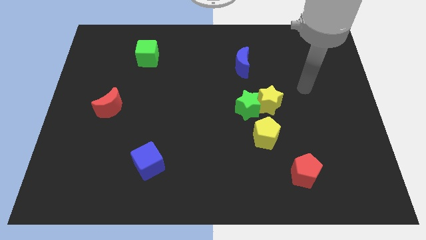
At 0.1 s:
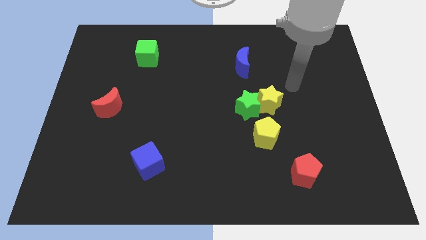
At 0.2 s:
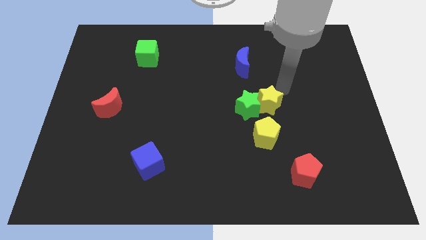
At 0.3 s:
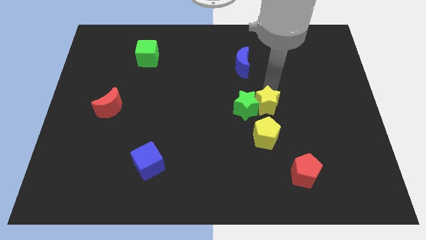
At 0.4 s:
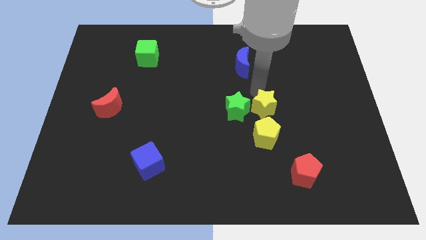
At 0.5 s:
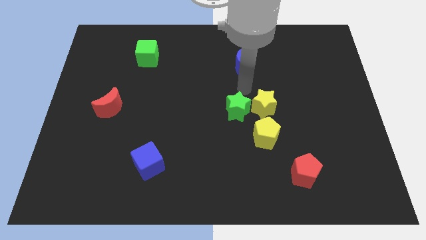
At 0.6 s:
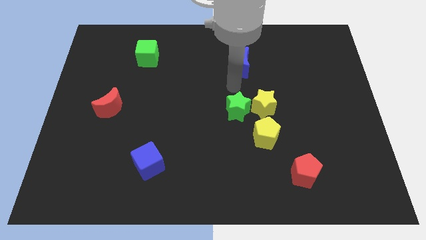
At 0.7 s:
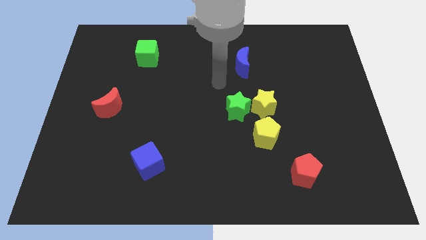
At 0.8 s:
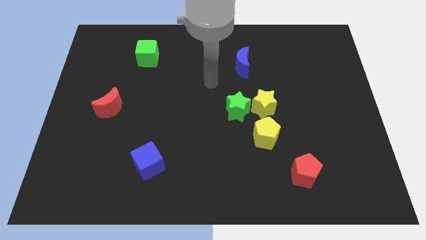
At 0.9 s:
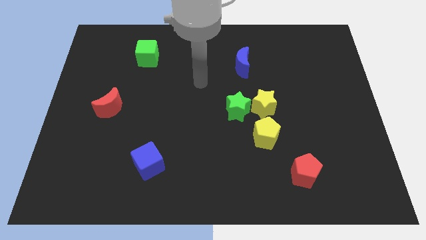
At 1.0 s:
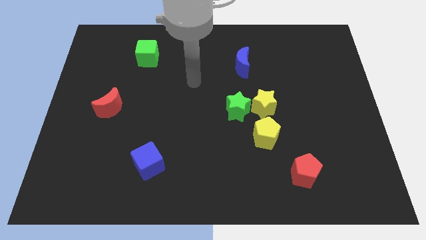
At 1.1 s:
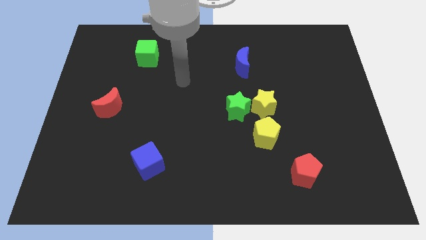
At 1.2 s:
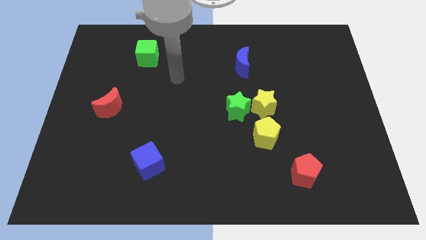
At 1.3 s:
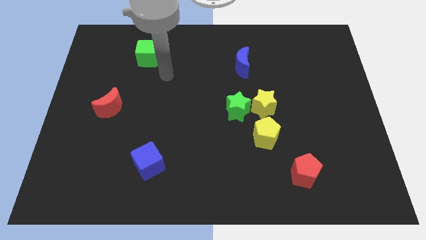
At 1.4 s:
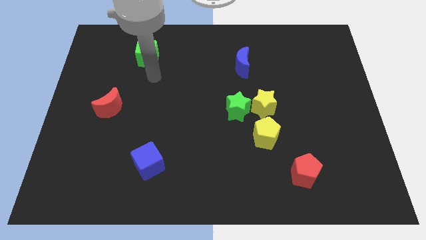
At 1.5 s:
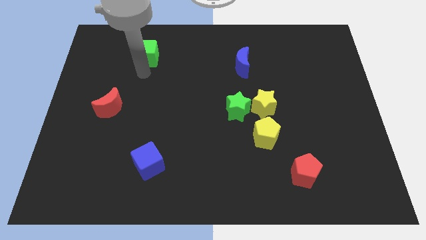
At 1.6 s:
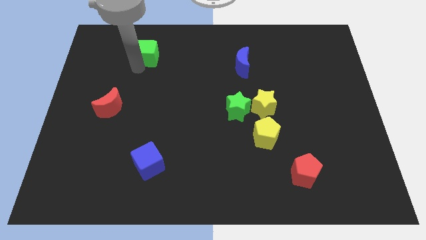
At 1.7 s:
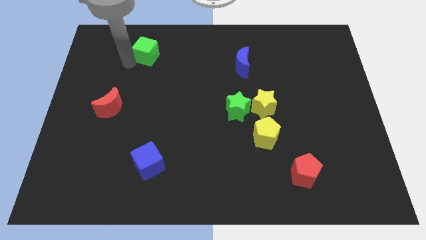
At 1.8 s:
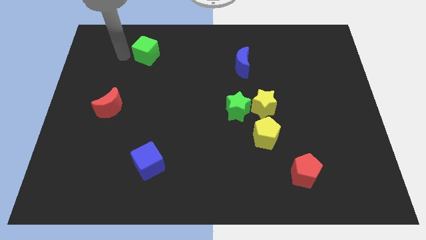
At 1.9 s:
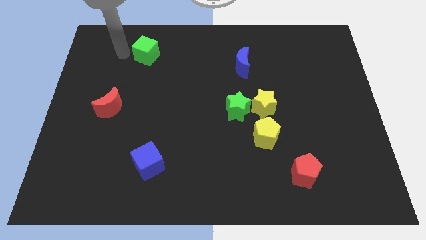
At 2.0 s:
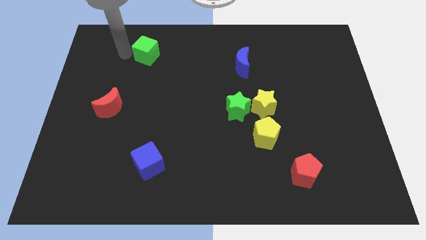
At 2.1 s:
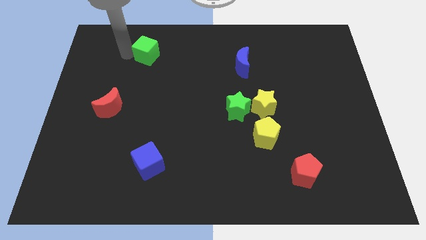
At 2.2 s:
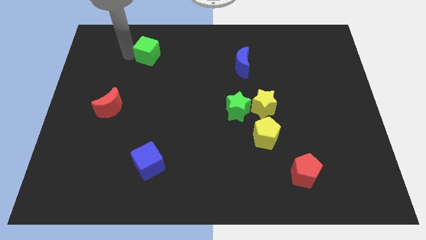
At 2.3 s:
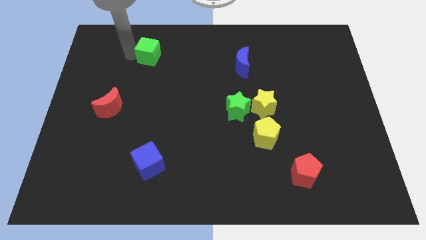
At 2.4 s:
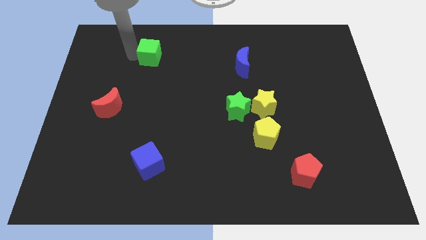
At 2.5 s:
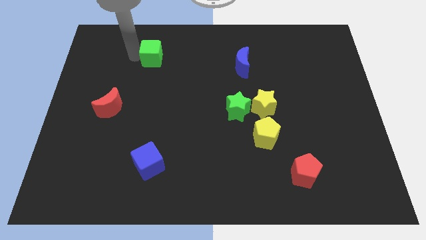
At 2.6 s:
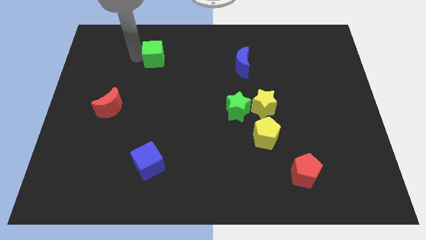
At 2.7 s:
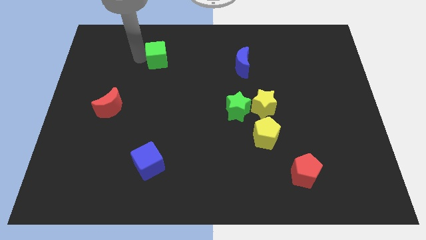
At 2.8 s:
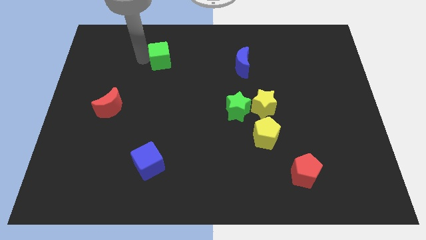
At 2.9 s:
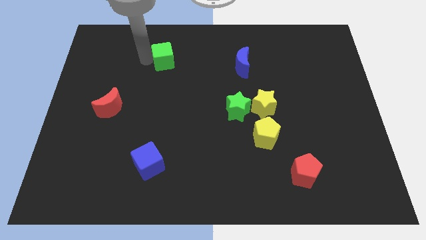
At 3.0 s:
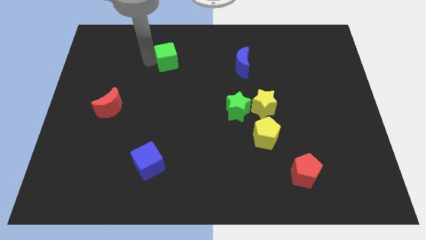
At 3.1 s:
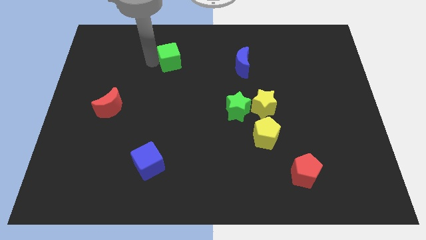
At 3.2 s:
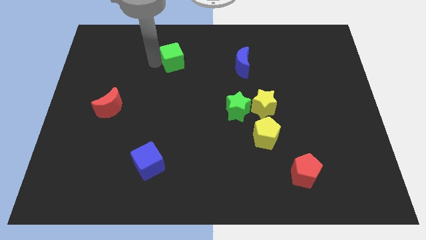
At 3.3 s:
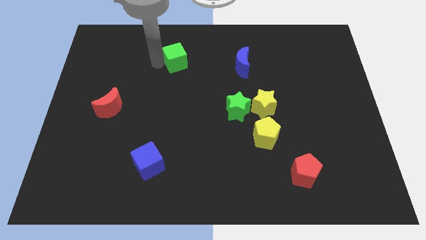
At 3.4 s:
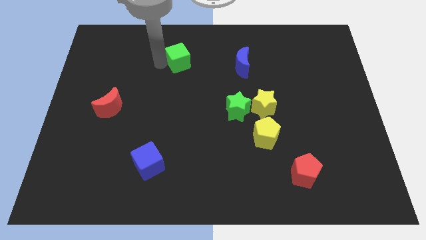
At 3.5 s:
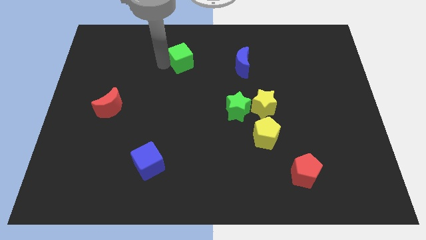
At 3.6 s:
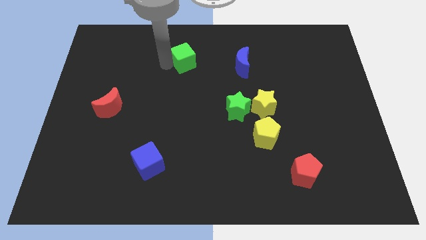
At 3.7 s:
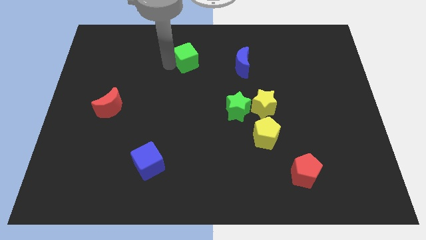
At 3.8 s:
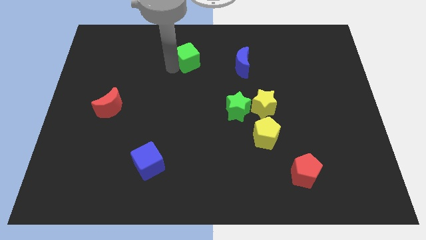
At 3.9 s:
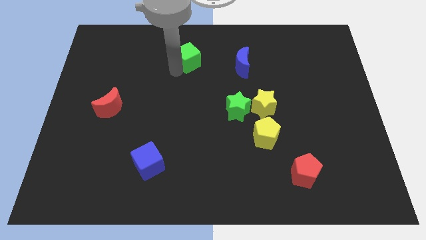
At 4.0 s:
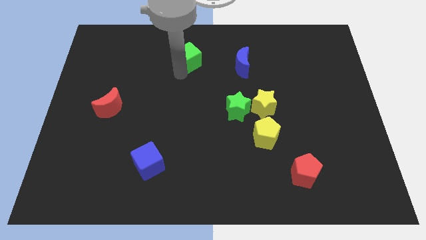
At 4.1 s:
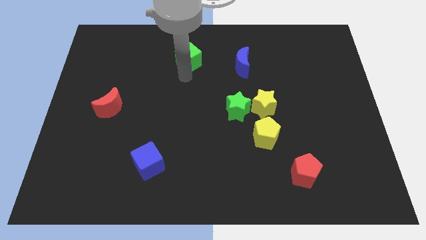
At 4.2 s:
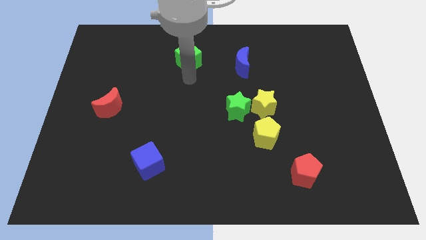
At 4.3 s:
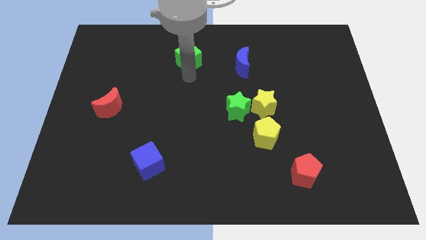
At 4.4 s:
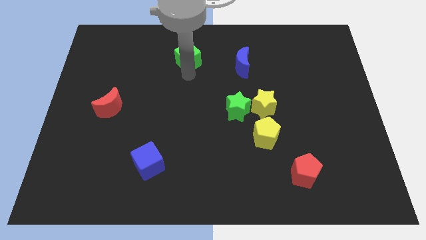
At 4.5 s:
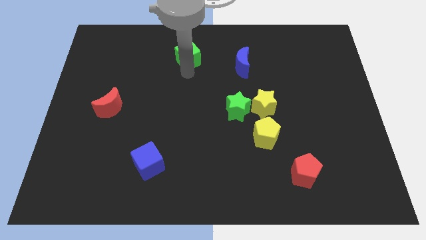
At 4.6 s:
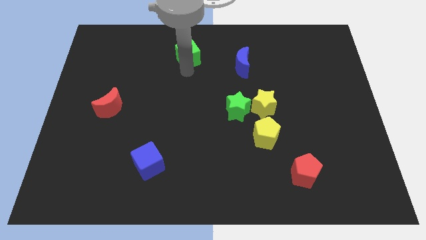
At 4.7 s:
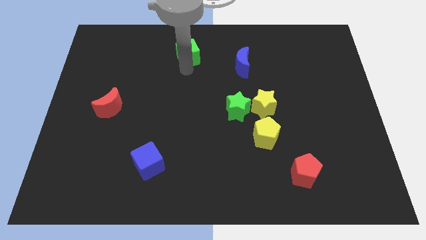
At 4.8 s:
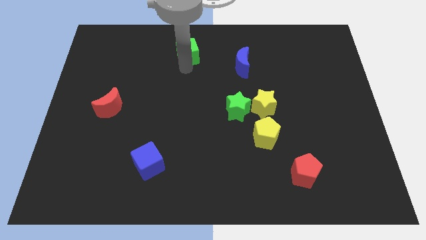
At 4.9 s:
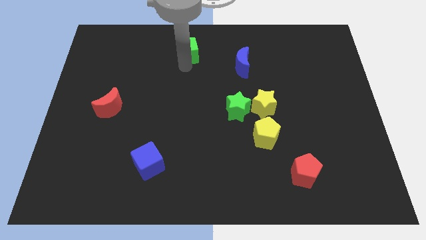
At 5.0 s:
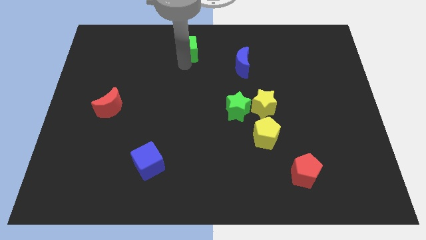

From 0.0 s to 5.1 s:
slide the green cube to the top

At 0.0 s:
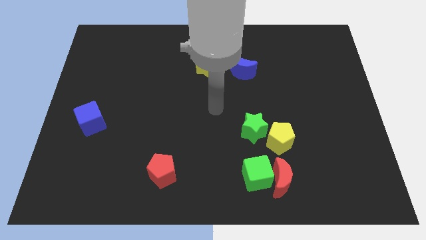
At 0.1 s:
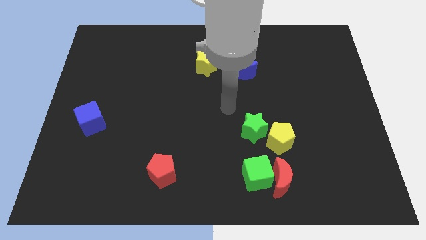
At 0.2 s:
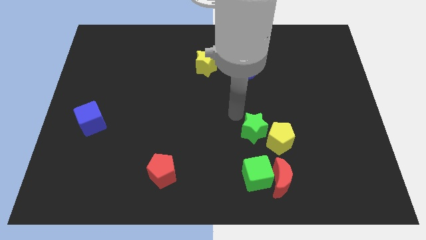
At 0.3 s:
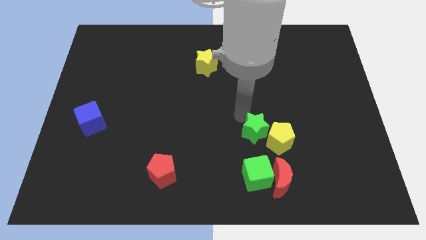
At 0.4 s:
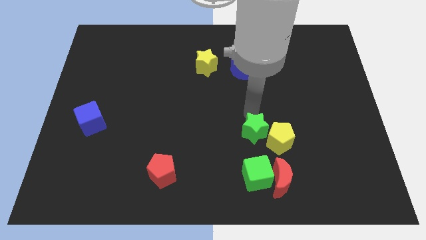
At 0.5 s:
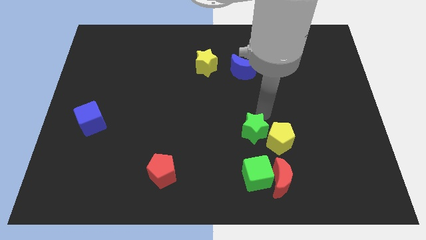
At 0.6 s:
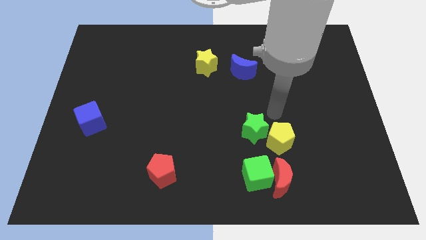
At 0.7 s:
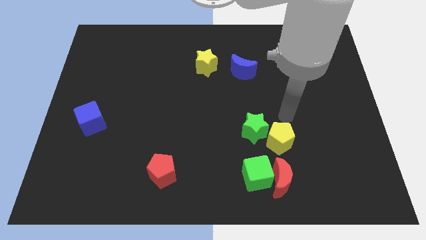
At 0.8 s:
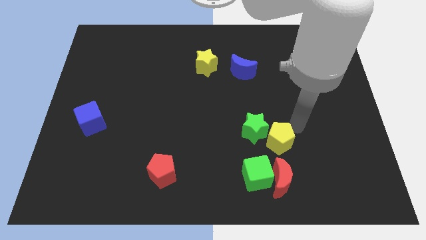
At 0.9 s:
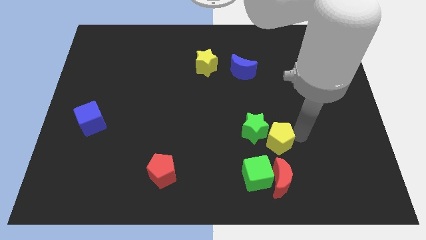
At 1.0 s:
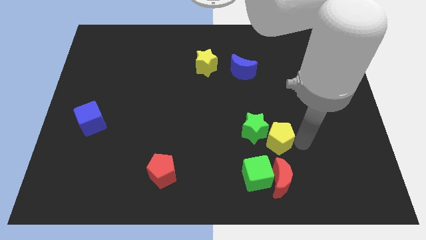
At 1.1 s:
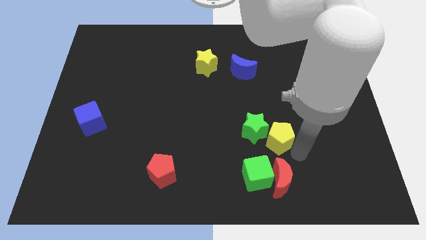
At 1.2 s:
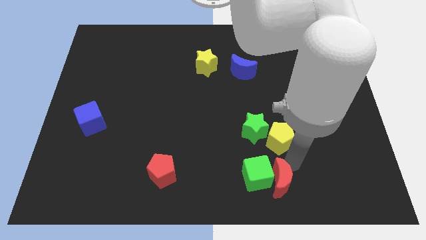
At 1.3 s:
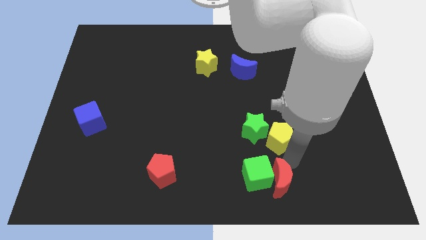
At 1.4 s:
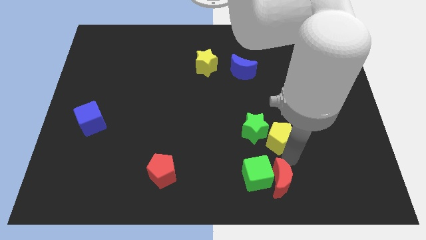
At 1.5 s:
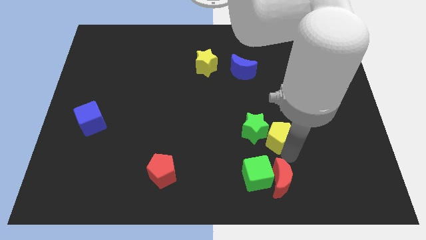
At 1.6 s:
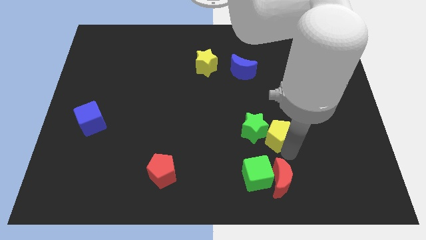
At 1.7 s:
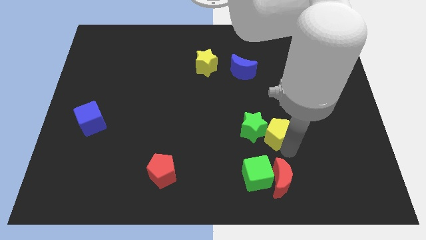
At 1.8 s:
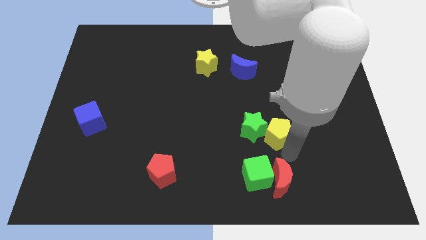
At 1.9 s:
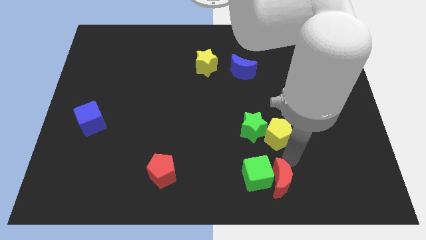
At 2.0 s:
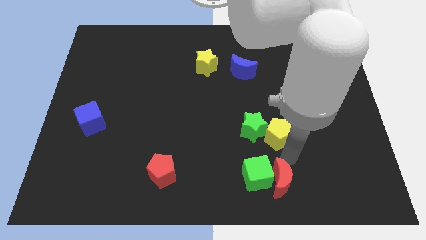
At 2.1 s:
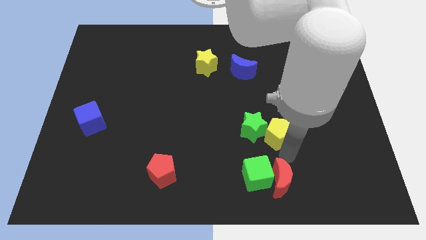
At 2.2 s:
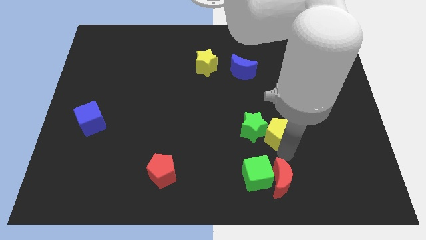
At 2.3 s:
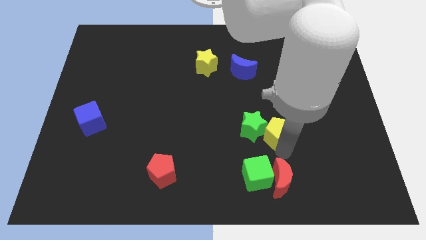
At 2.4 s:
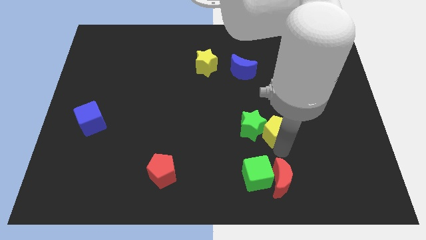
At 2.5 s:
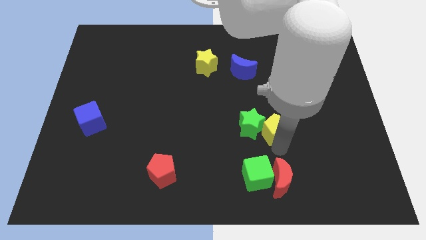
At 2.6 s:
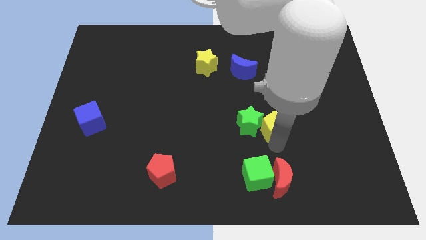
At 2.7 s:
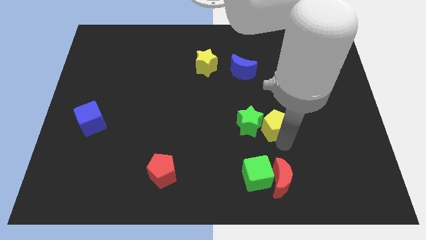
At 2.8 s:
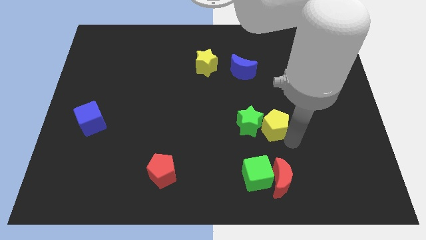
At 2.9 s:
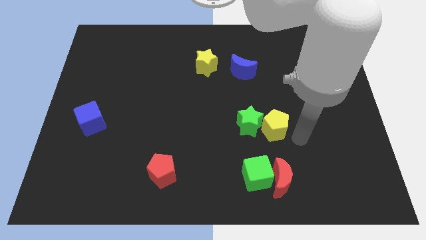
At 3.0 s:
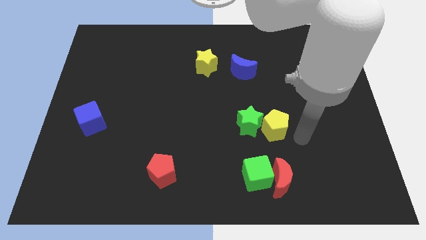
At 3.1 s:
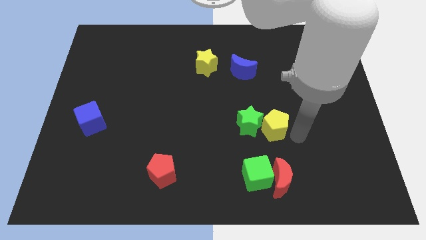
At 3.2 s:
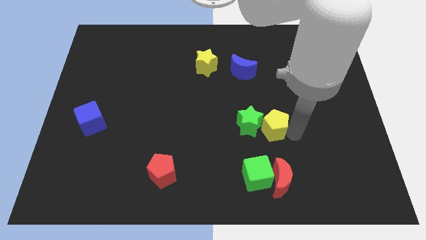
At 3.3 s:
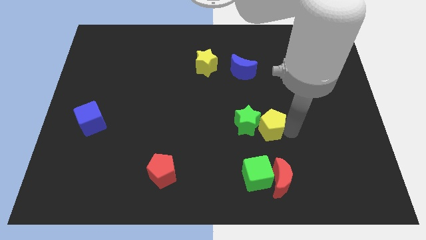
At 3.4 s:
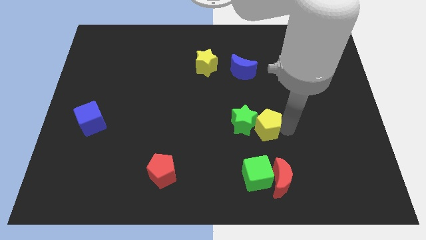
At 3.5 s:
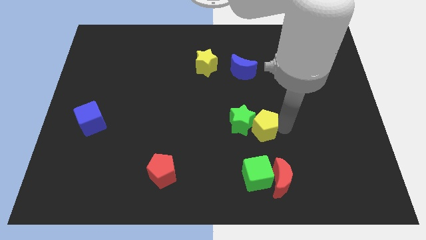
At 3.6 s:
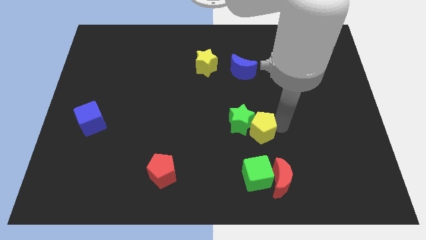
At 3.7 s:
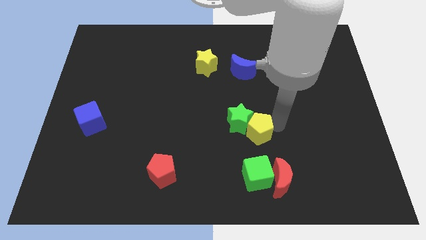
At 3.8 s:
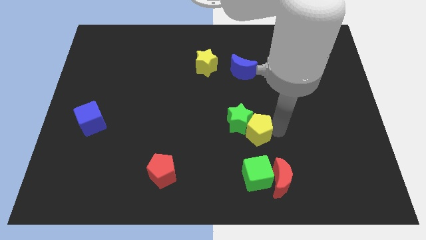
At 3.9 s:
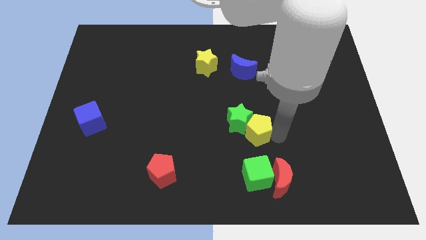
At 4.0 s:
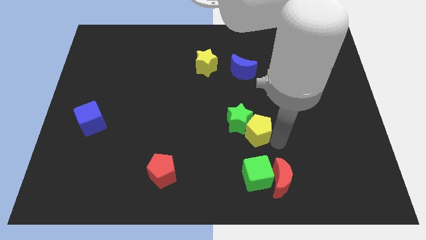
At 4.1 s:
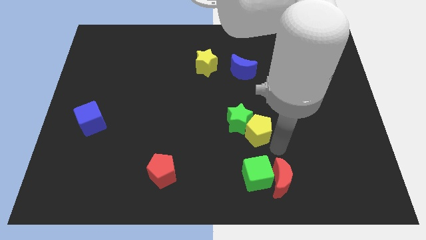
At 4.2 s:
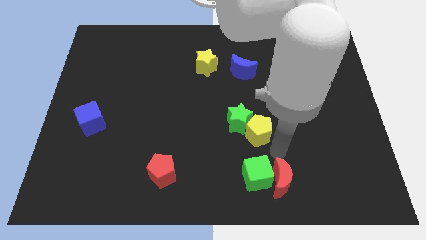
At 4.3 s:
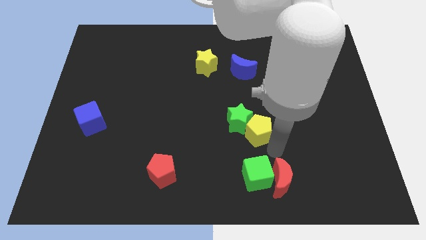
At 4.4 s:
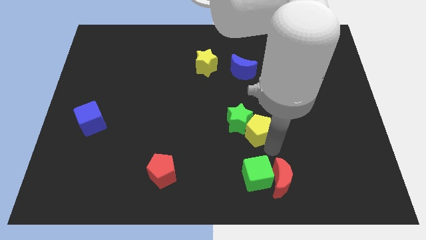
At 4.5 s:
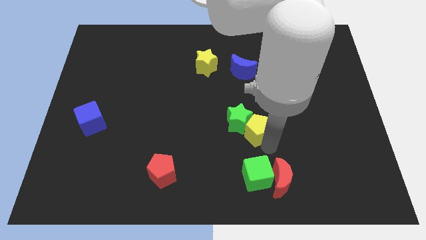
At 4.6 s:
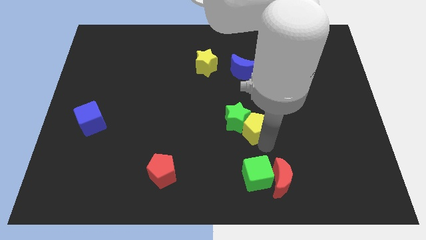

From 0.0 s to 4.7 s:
slide the yellow pentagon to the center of the board
